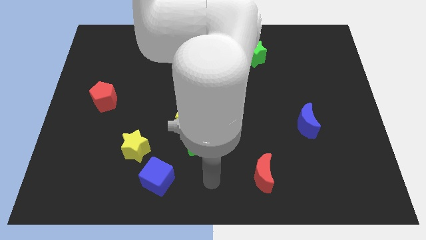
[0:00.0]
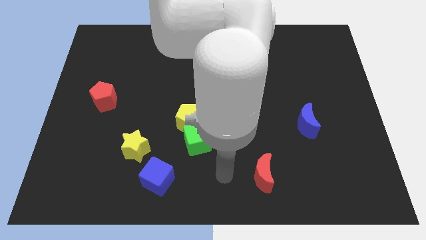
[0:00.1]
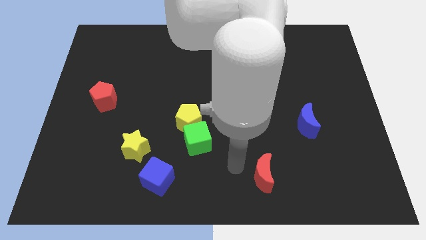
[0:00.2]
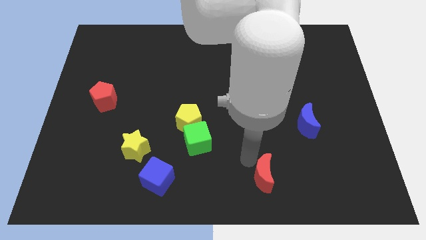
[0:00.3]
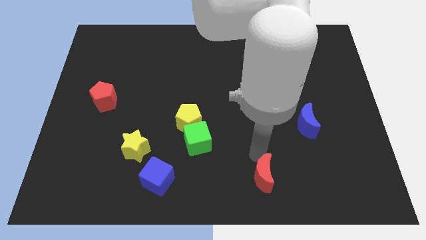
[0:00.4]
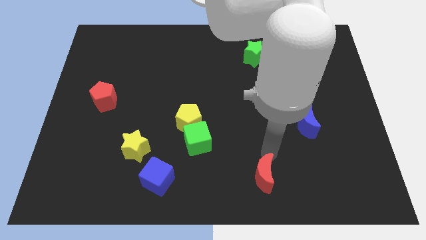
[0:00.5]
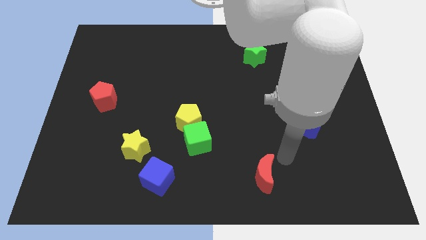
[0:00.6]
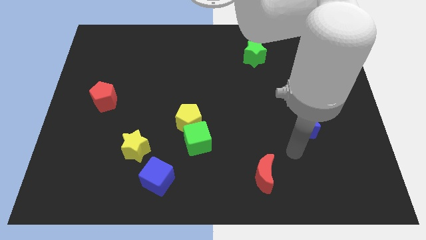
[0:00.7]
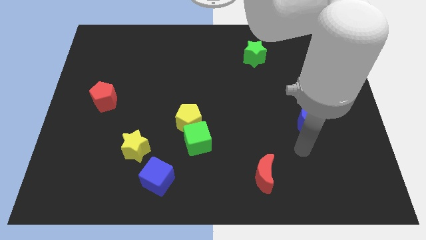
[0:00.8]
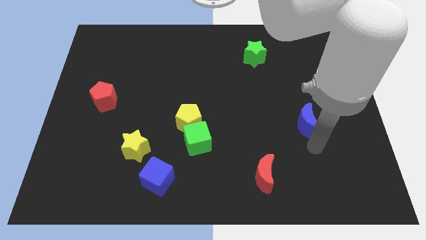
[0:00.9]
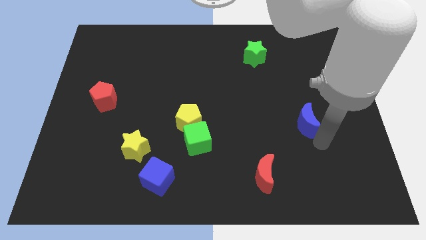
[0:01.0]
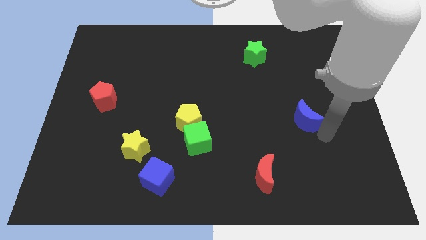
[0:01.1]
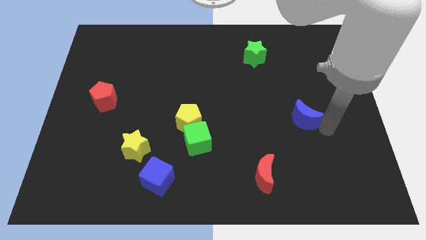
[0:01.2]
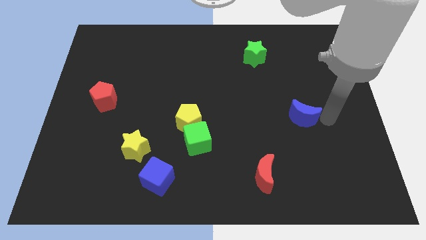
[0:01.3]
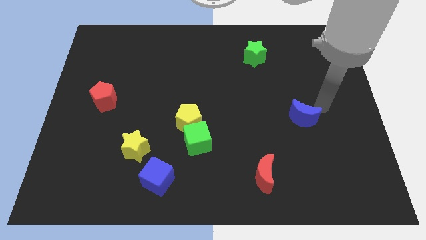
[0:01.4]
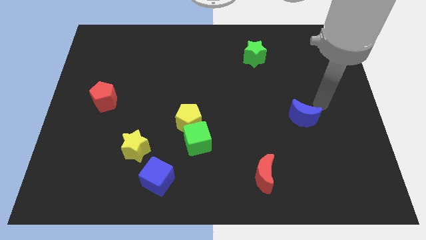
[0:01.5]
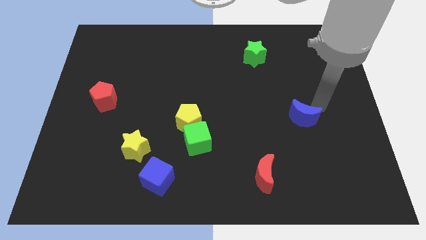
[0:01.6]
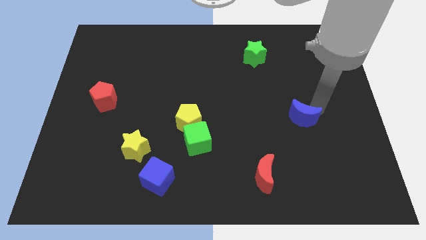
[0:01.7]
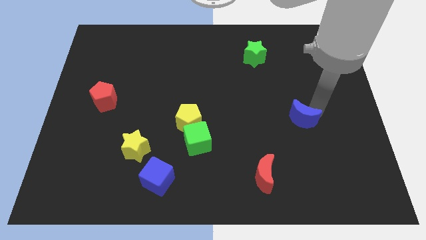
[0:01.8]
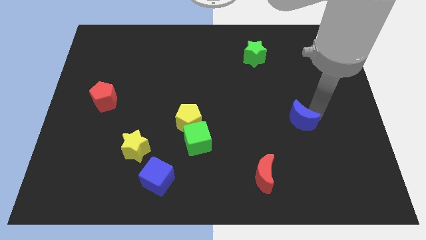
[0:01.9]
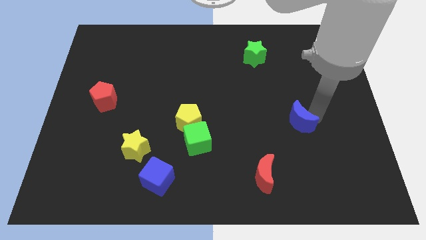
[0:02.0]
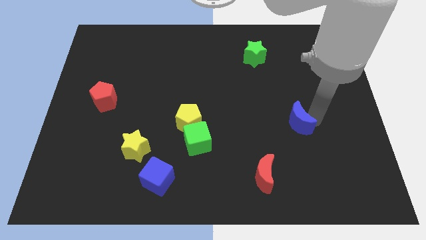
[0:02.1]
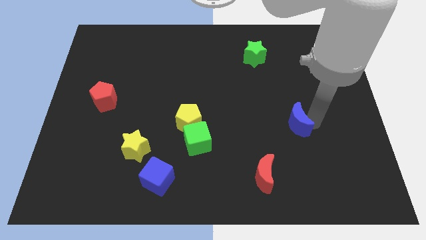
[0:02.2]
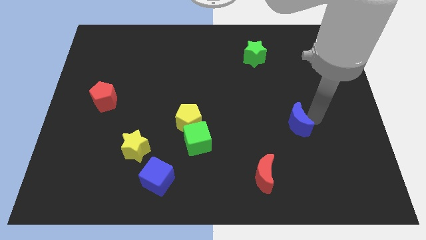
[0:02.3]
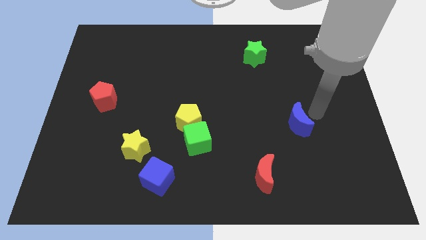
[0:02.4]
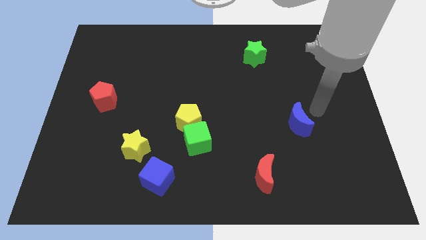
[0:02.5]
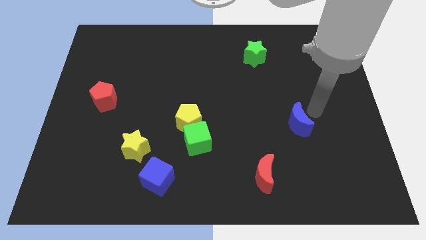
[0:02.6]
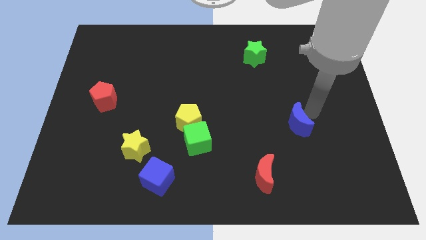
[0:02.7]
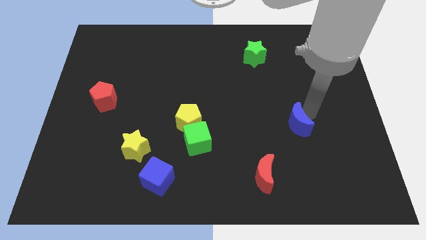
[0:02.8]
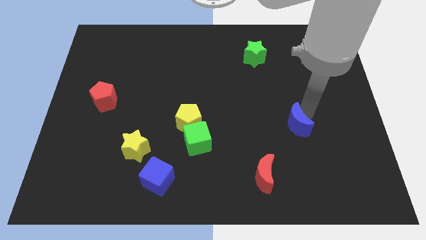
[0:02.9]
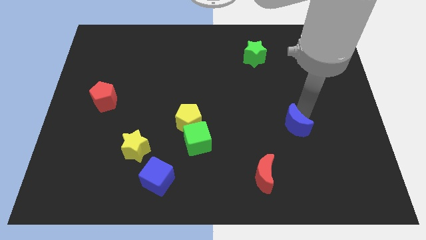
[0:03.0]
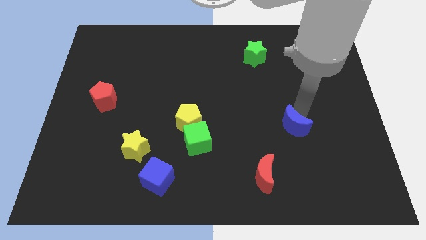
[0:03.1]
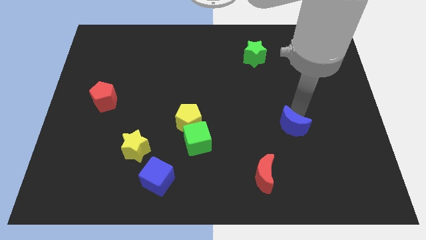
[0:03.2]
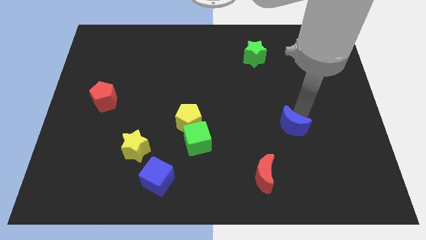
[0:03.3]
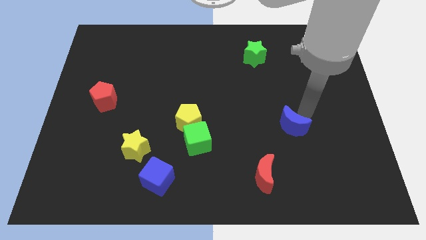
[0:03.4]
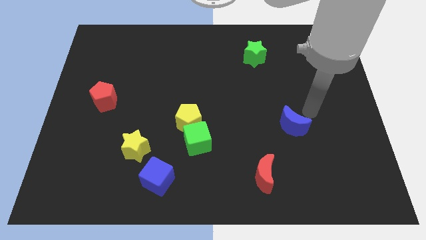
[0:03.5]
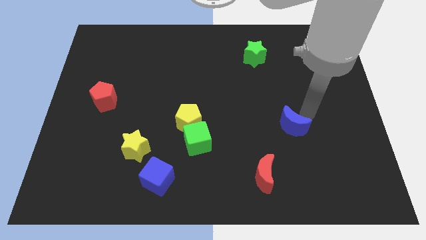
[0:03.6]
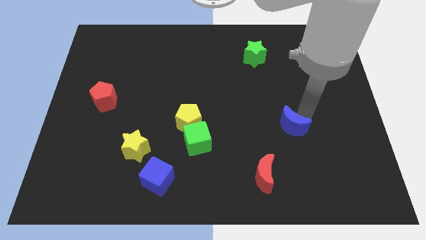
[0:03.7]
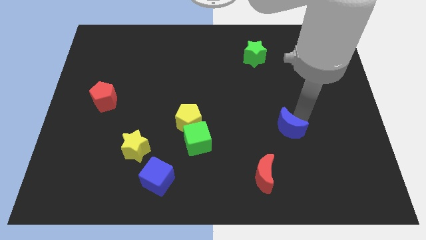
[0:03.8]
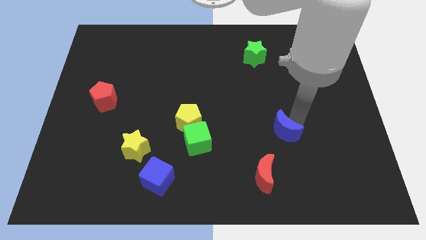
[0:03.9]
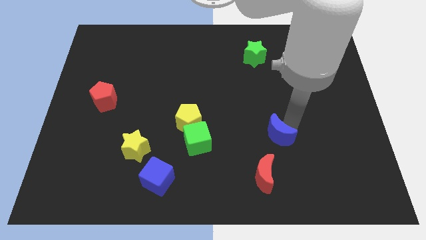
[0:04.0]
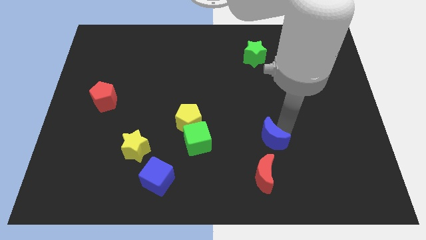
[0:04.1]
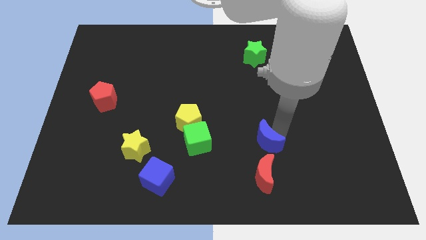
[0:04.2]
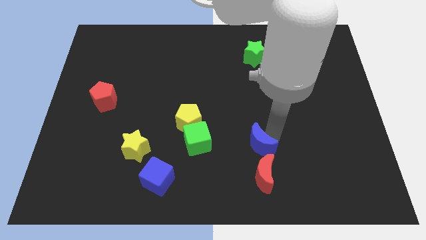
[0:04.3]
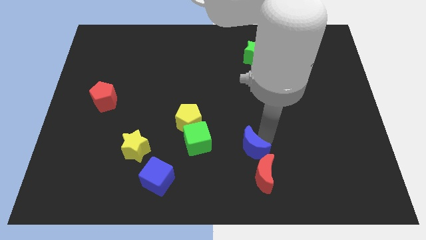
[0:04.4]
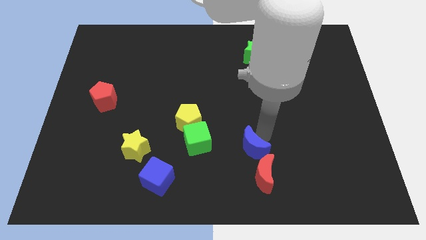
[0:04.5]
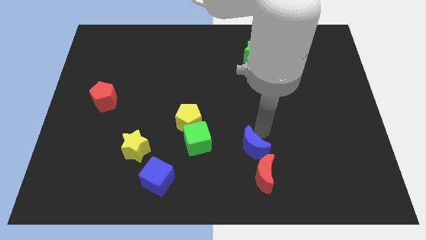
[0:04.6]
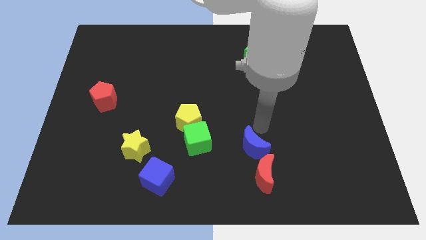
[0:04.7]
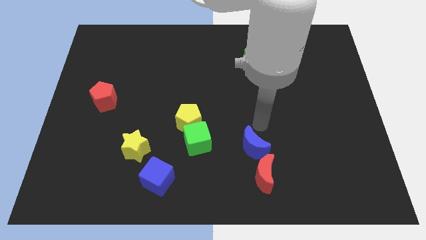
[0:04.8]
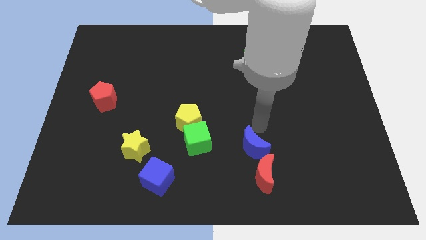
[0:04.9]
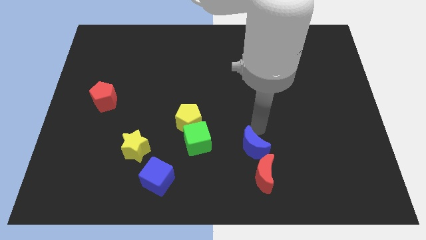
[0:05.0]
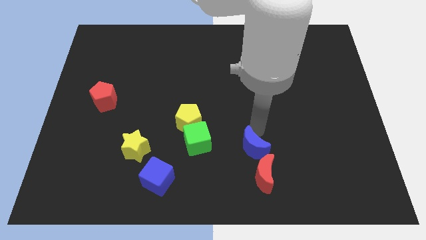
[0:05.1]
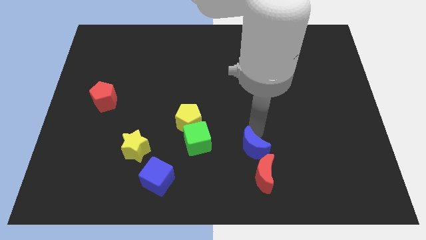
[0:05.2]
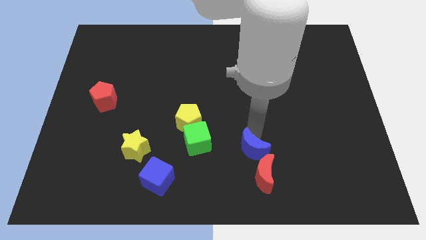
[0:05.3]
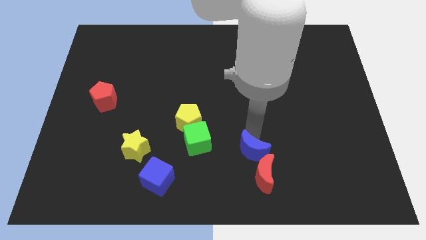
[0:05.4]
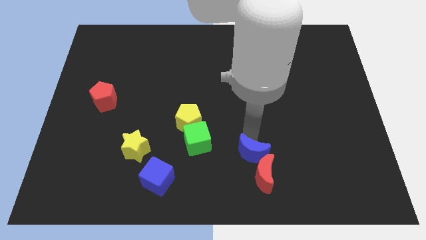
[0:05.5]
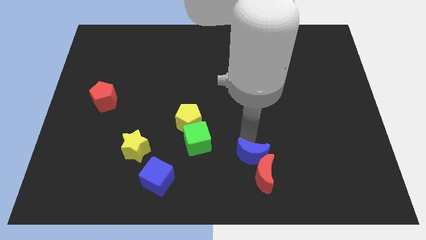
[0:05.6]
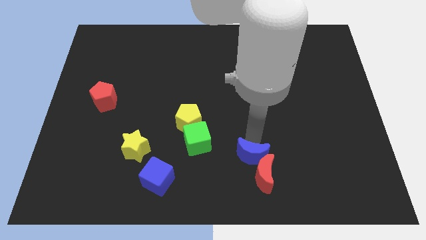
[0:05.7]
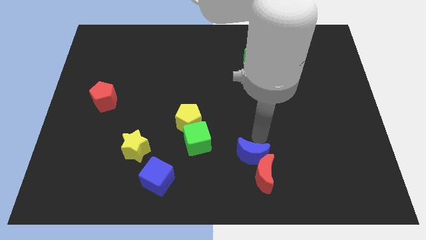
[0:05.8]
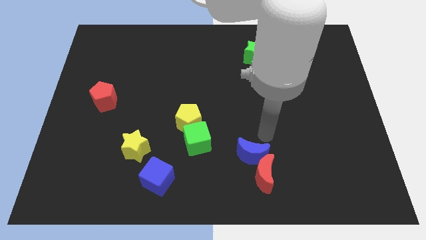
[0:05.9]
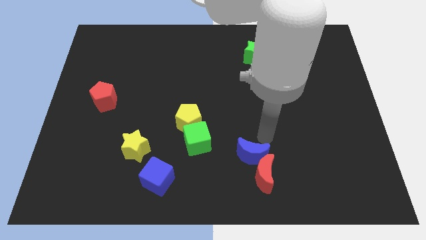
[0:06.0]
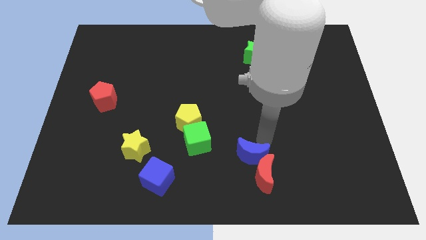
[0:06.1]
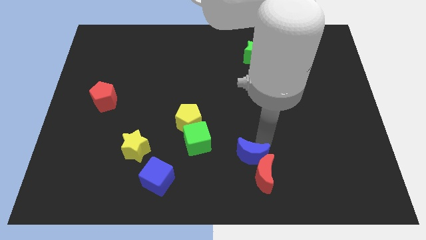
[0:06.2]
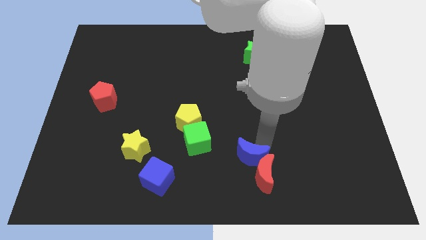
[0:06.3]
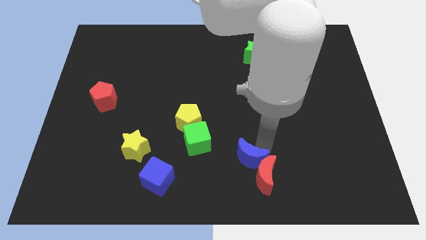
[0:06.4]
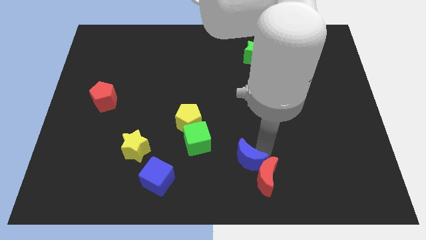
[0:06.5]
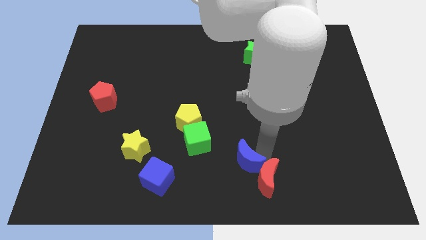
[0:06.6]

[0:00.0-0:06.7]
put the blue moon to the bottom side
